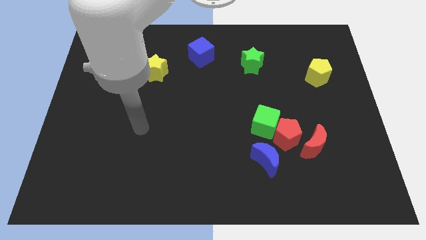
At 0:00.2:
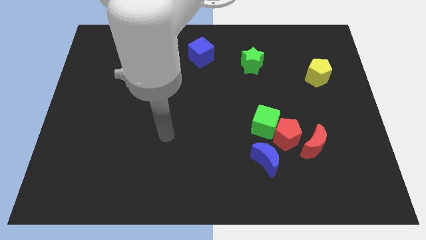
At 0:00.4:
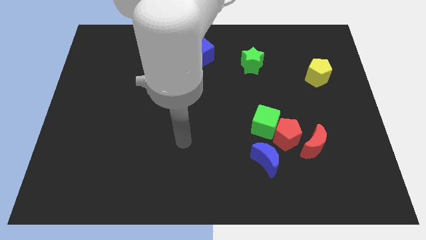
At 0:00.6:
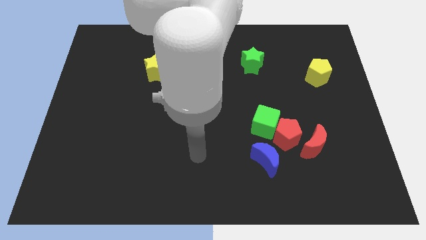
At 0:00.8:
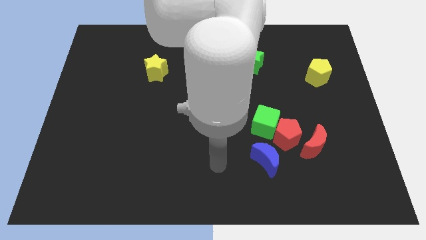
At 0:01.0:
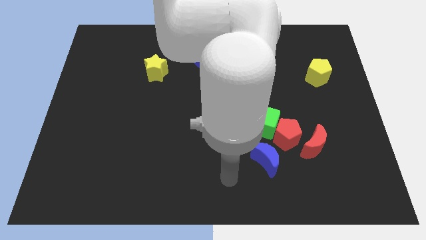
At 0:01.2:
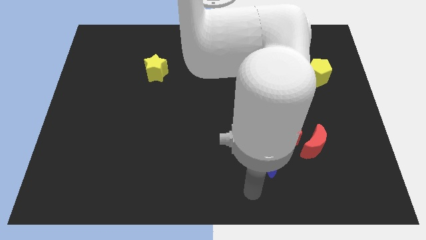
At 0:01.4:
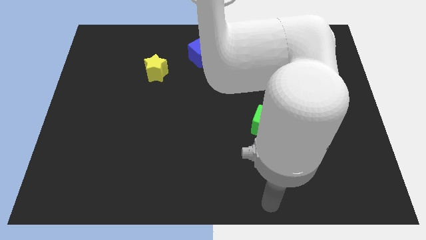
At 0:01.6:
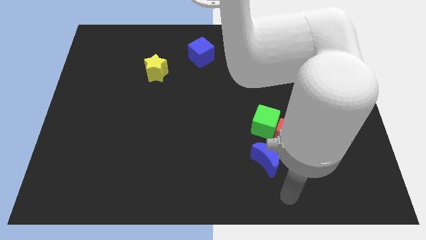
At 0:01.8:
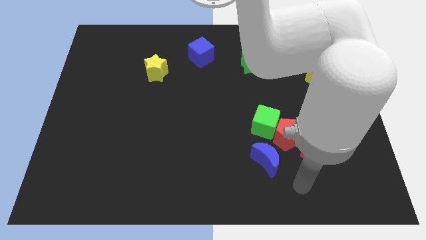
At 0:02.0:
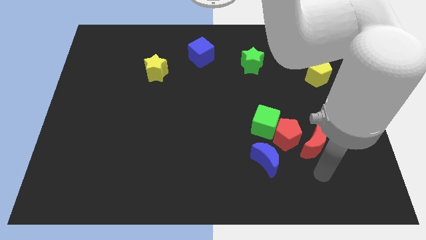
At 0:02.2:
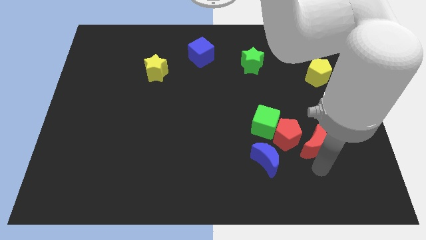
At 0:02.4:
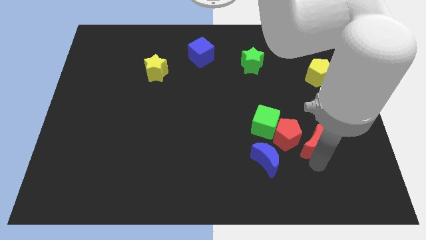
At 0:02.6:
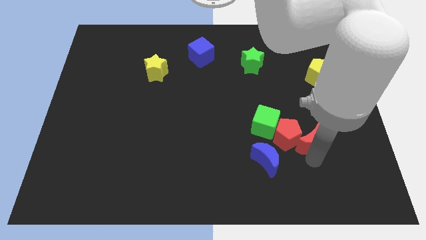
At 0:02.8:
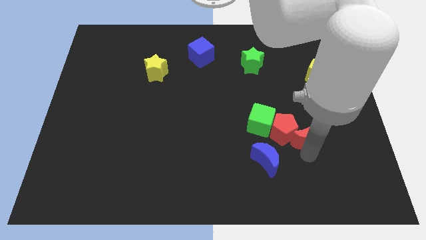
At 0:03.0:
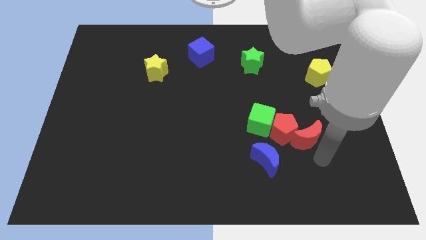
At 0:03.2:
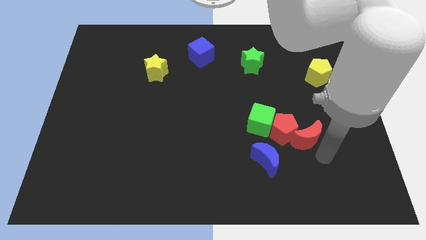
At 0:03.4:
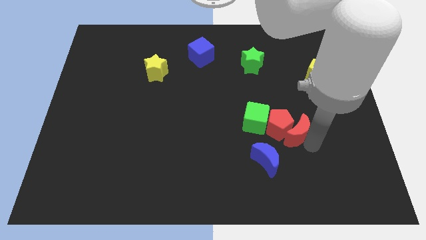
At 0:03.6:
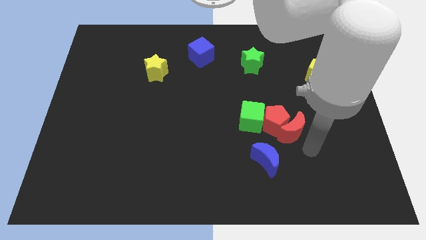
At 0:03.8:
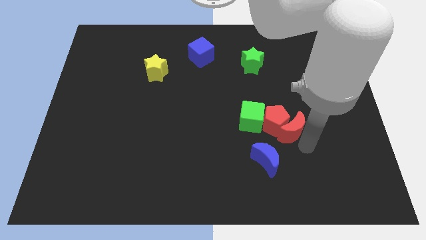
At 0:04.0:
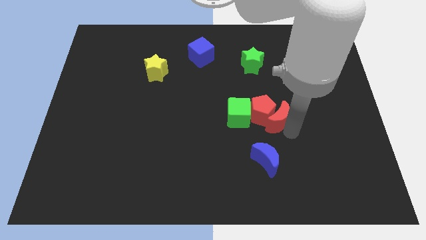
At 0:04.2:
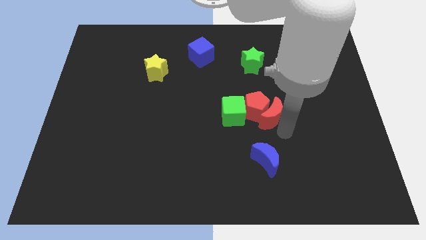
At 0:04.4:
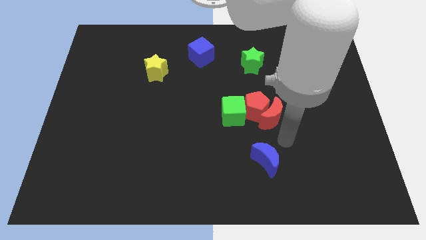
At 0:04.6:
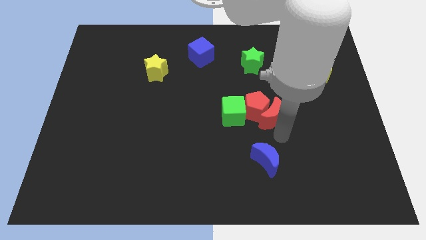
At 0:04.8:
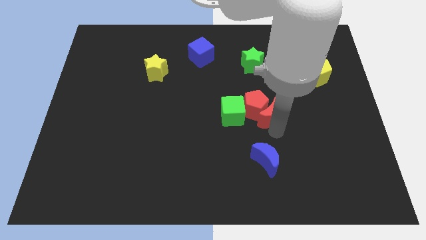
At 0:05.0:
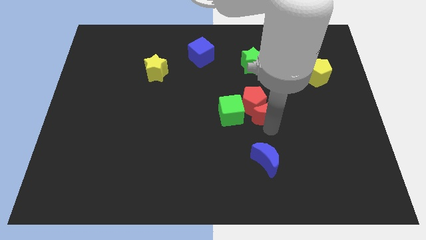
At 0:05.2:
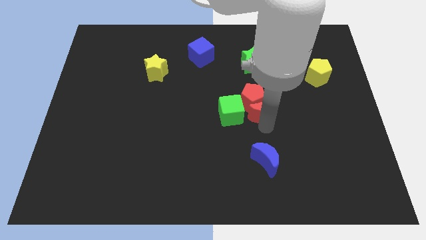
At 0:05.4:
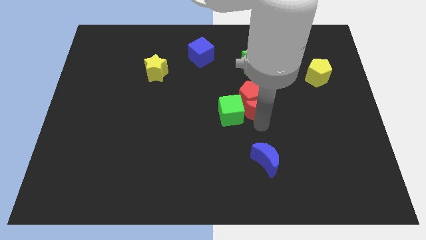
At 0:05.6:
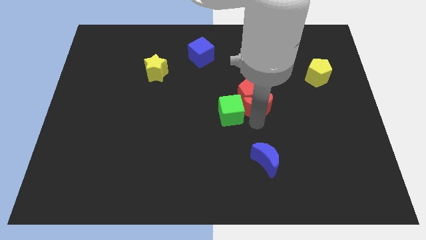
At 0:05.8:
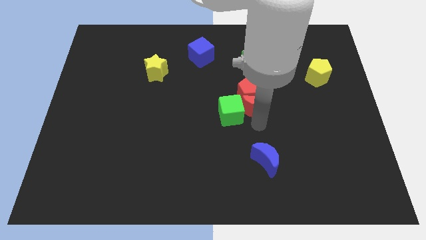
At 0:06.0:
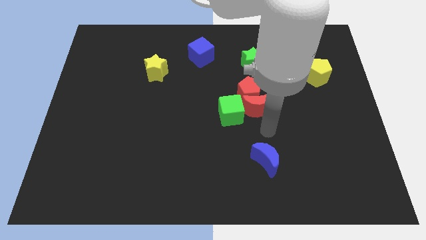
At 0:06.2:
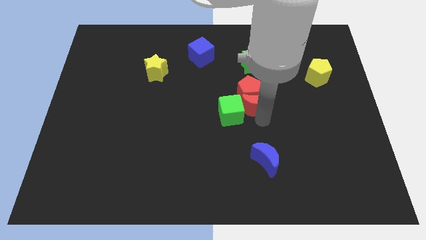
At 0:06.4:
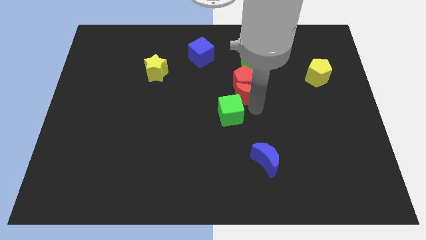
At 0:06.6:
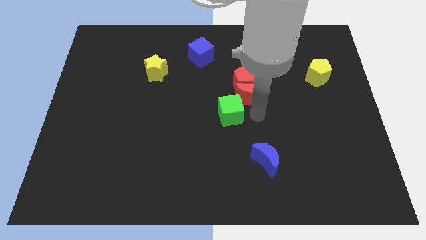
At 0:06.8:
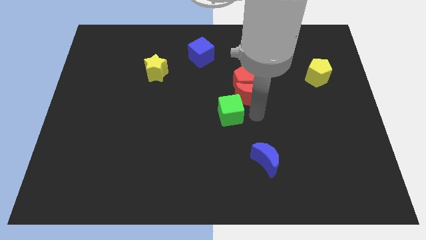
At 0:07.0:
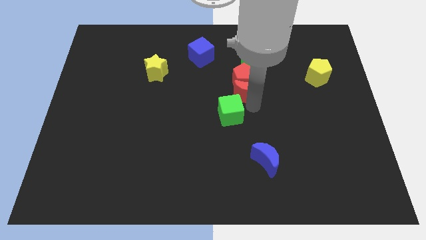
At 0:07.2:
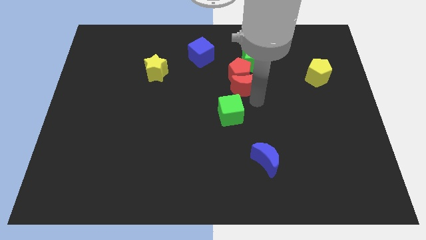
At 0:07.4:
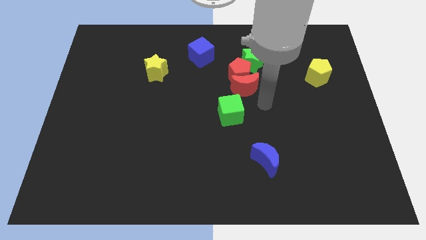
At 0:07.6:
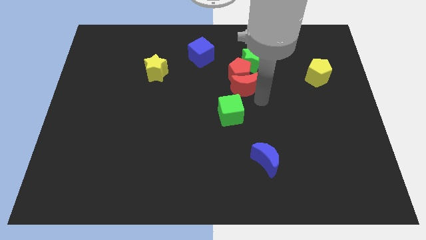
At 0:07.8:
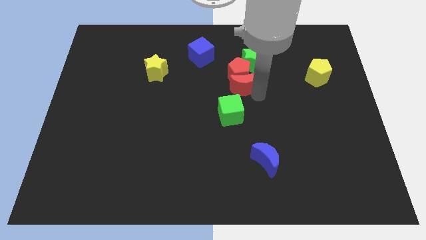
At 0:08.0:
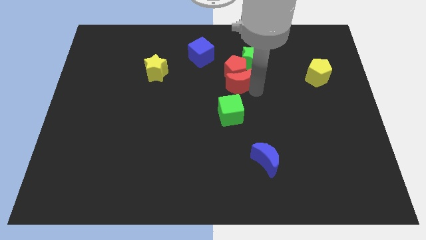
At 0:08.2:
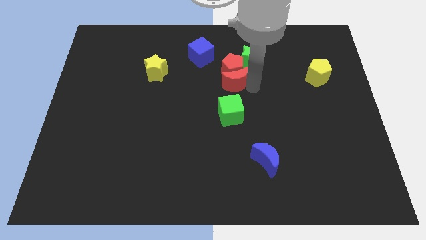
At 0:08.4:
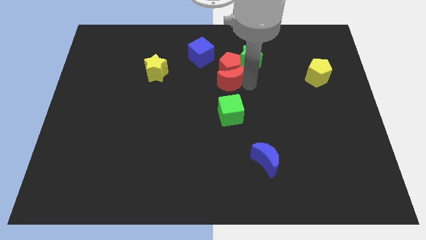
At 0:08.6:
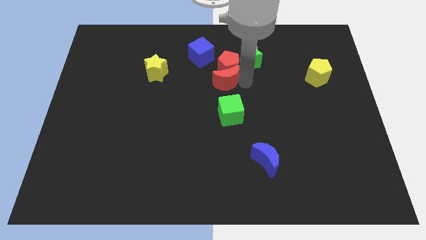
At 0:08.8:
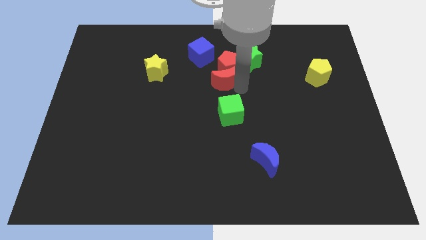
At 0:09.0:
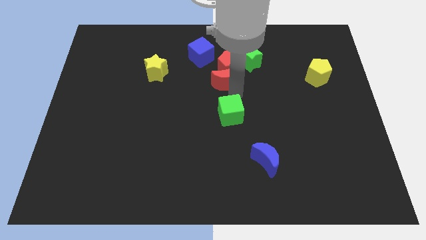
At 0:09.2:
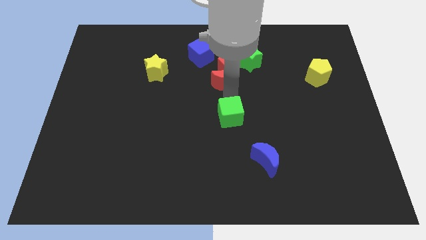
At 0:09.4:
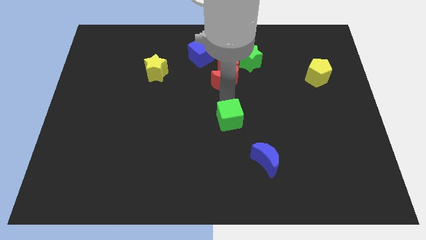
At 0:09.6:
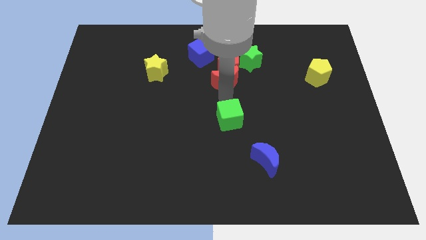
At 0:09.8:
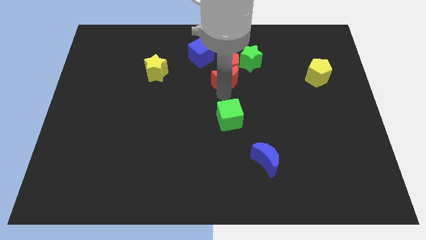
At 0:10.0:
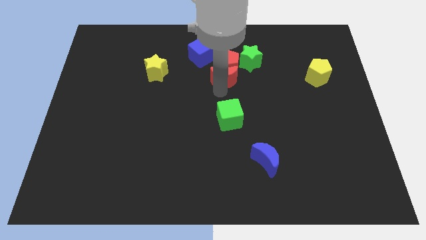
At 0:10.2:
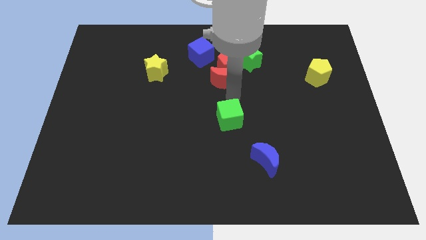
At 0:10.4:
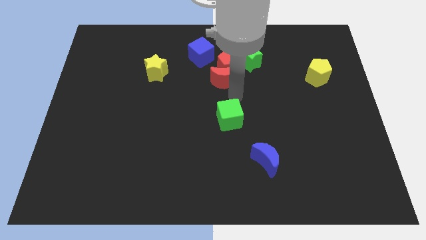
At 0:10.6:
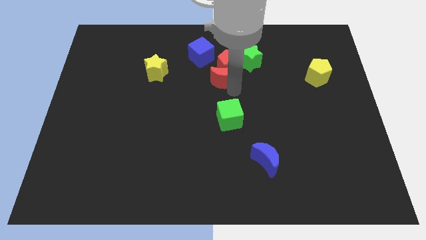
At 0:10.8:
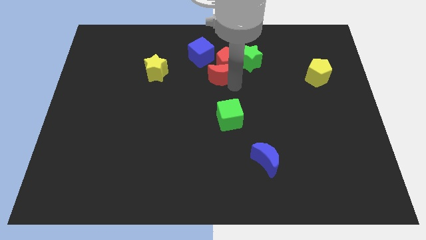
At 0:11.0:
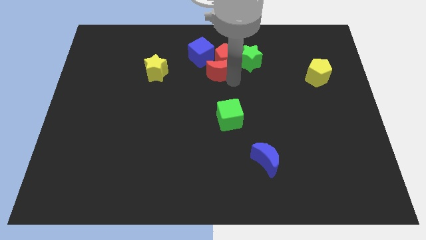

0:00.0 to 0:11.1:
slide the red moon to the left side of the green star

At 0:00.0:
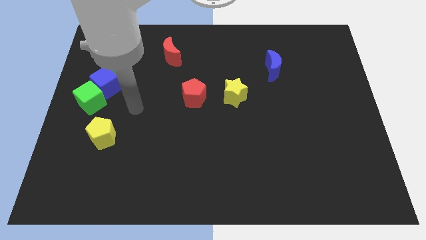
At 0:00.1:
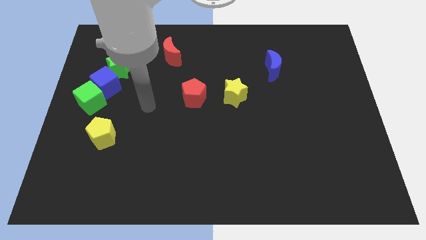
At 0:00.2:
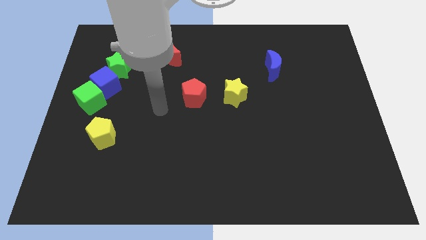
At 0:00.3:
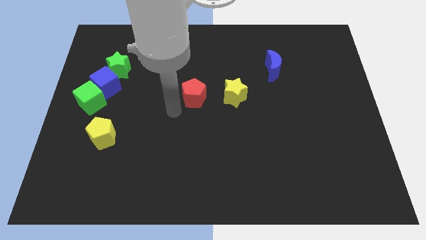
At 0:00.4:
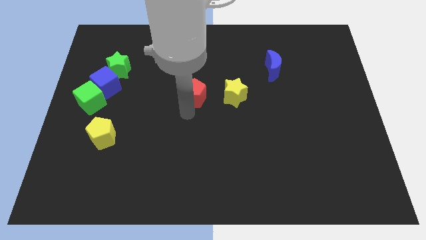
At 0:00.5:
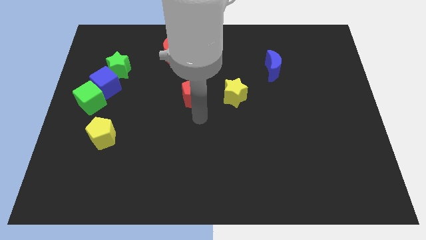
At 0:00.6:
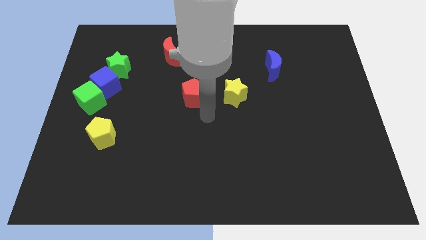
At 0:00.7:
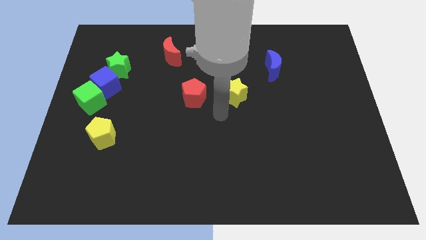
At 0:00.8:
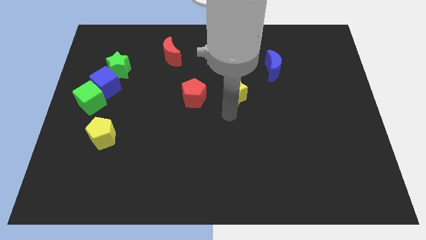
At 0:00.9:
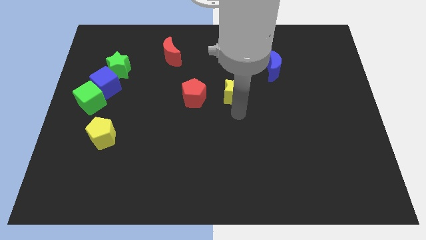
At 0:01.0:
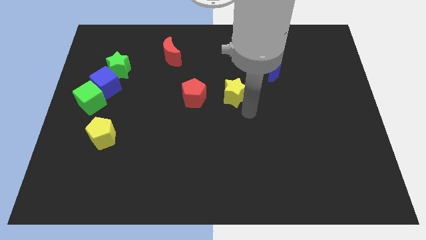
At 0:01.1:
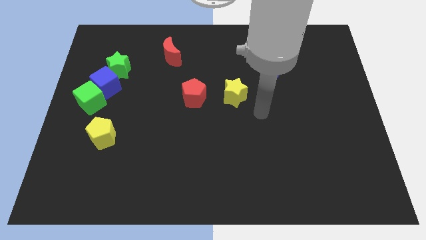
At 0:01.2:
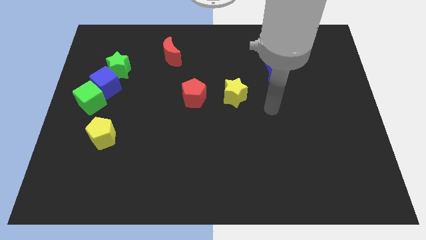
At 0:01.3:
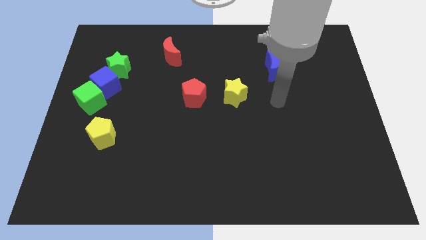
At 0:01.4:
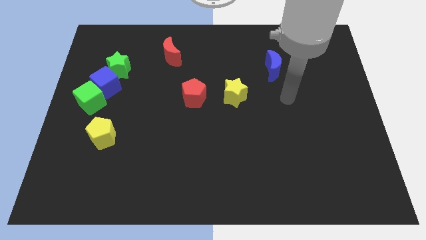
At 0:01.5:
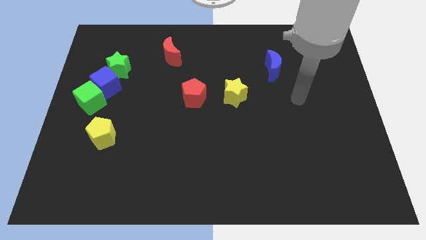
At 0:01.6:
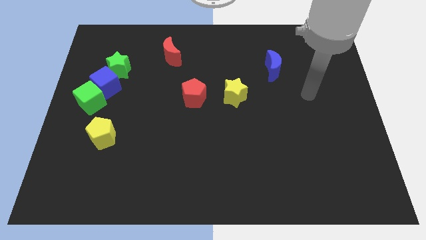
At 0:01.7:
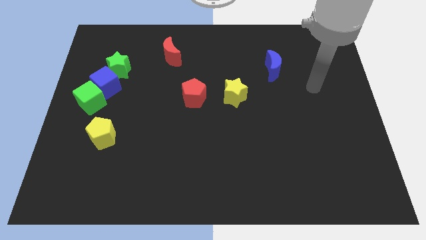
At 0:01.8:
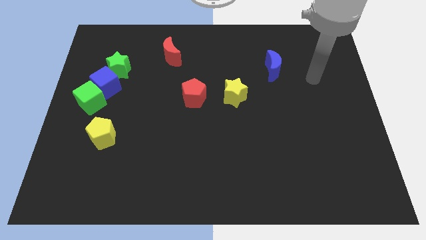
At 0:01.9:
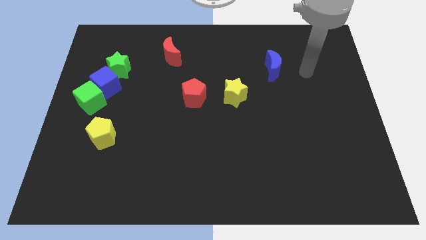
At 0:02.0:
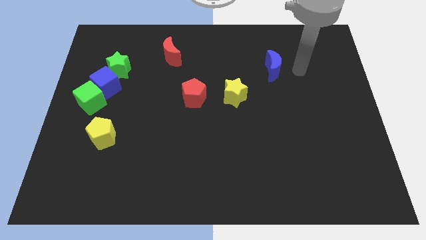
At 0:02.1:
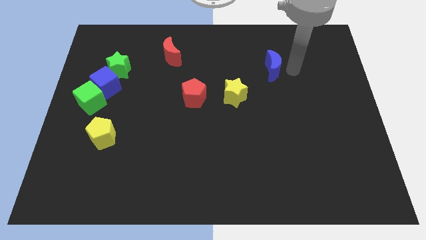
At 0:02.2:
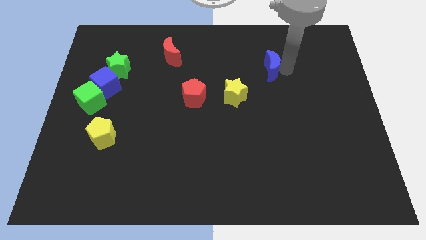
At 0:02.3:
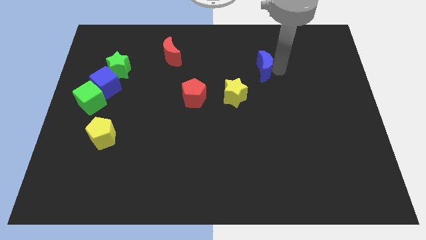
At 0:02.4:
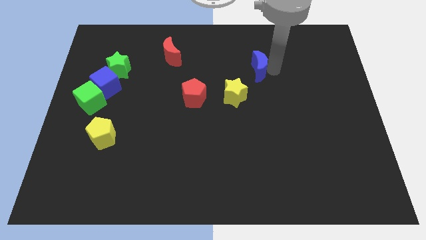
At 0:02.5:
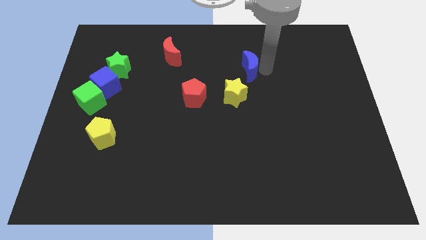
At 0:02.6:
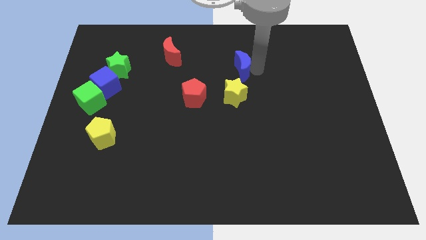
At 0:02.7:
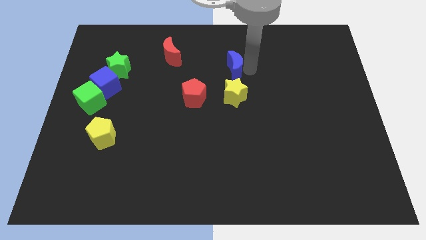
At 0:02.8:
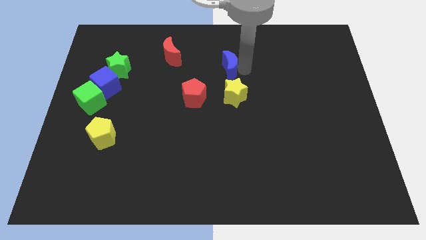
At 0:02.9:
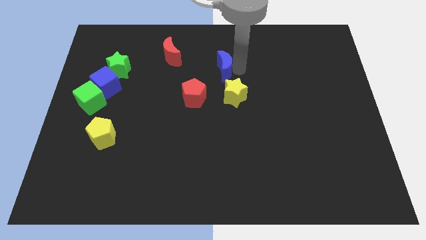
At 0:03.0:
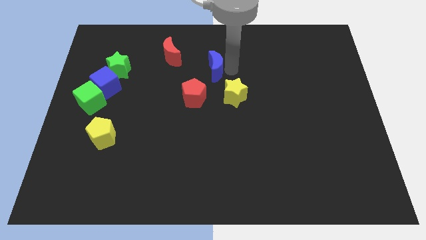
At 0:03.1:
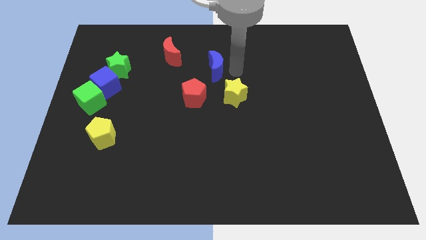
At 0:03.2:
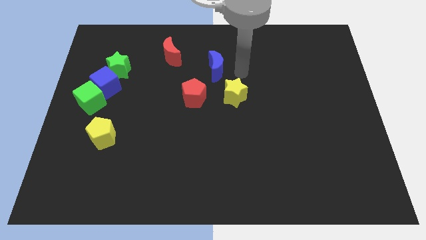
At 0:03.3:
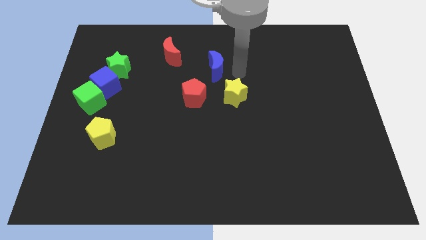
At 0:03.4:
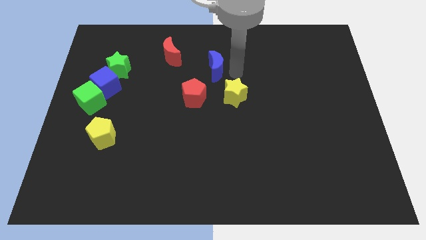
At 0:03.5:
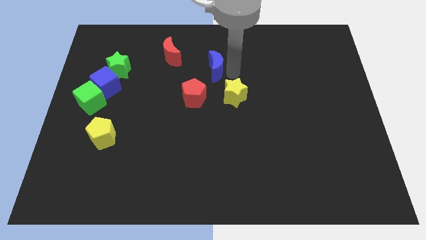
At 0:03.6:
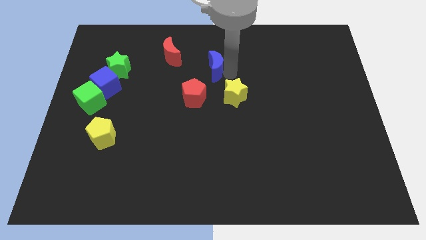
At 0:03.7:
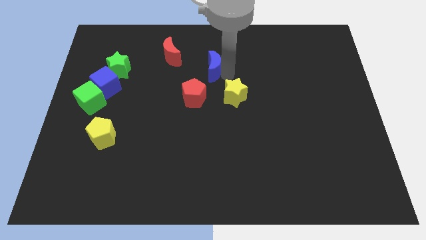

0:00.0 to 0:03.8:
put the blue moon to the top of the red pentagon
